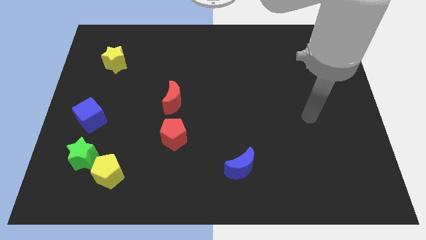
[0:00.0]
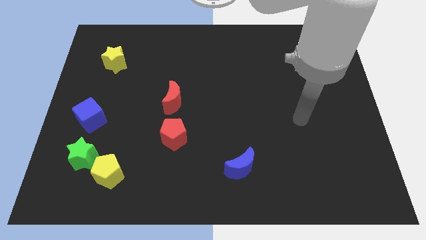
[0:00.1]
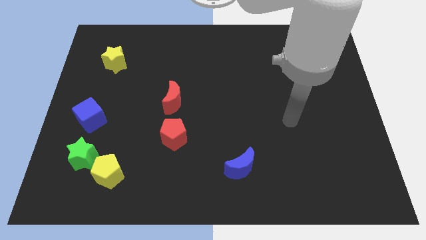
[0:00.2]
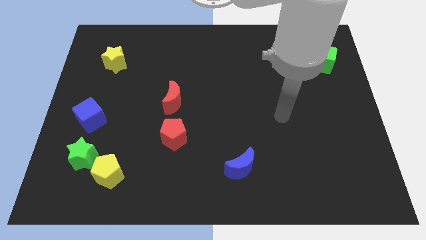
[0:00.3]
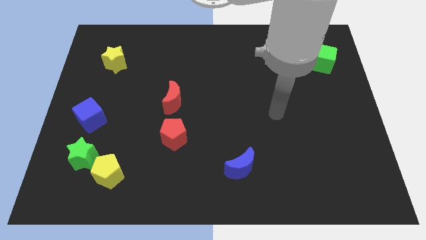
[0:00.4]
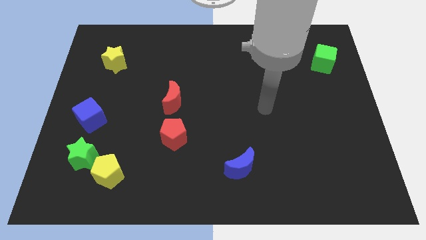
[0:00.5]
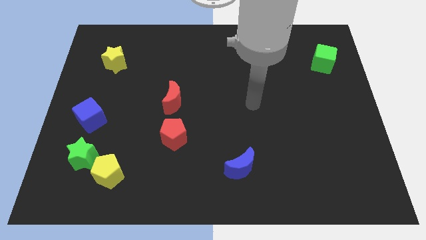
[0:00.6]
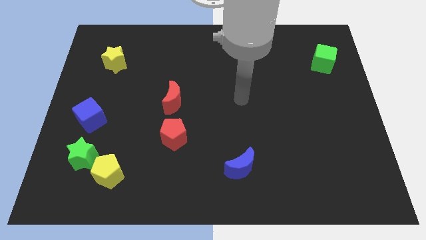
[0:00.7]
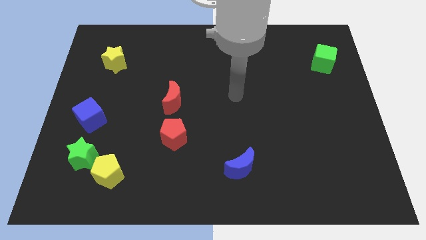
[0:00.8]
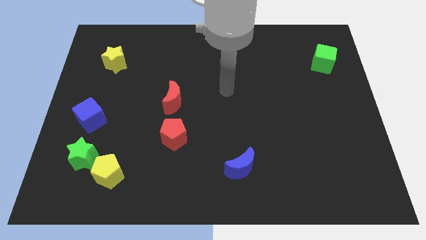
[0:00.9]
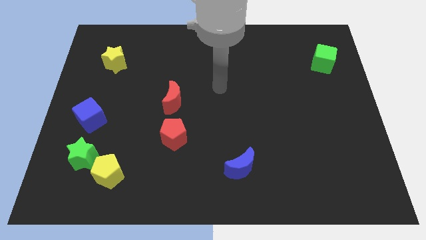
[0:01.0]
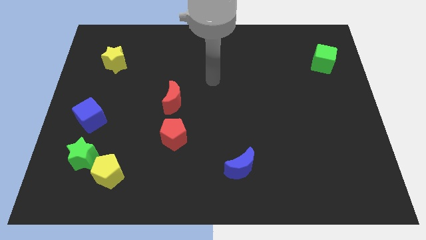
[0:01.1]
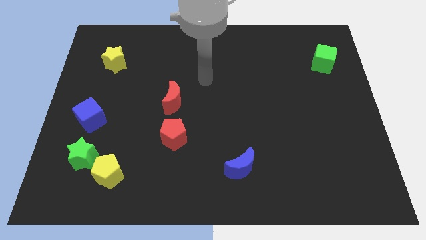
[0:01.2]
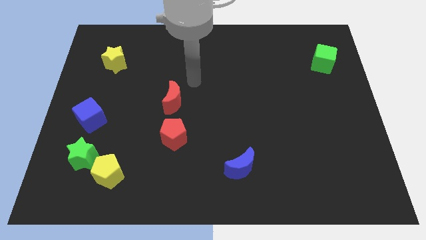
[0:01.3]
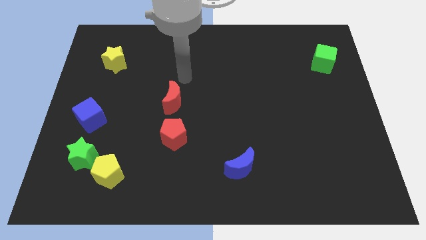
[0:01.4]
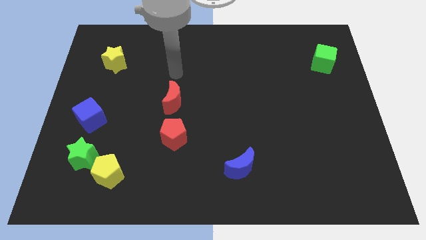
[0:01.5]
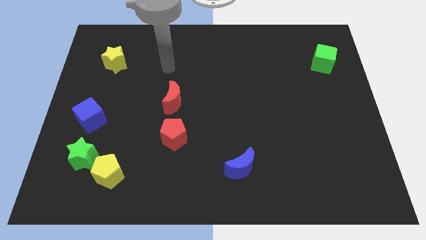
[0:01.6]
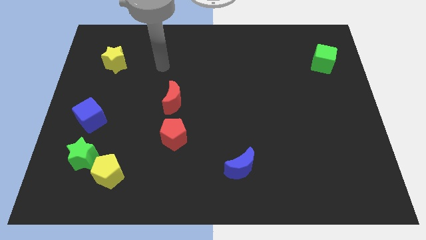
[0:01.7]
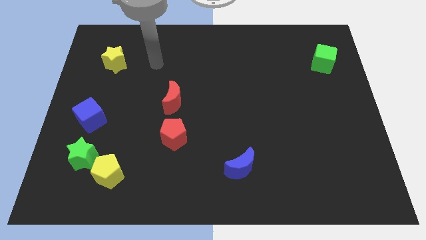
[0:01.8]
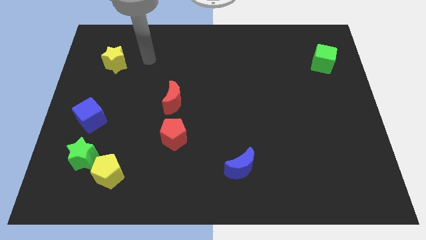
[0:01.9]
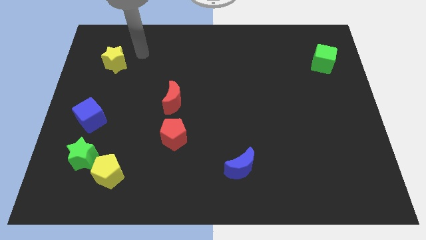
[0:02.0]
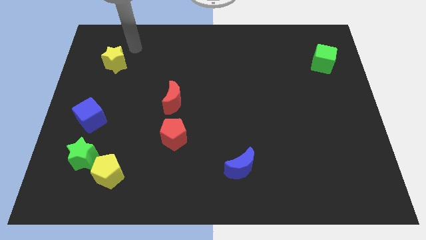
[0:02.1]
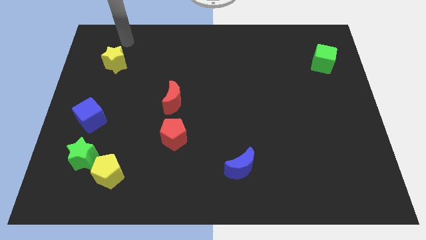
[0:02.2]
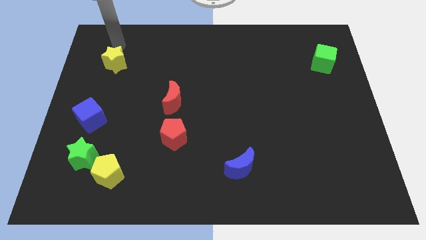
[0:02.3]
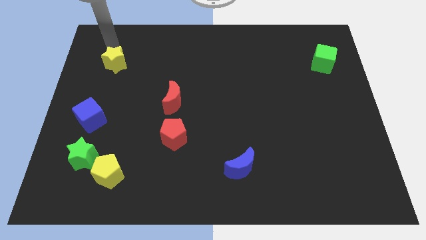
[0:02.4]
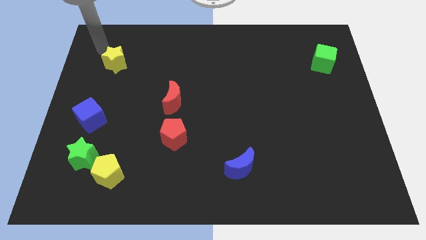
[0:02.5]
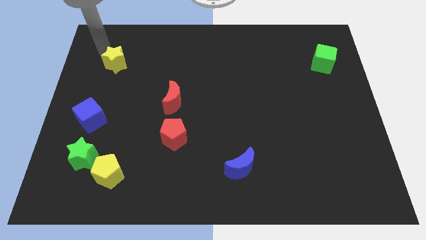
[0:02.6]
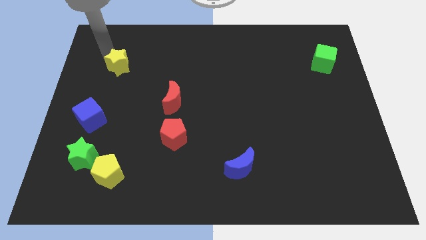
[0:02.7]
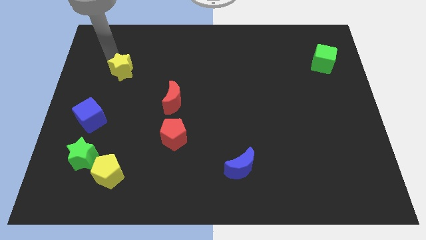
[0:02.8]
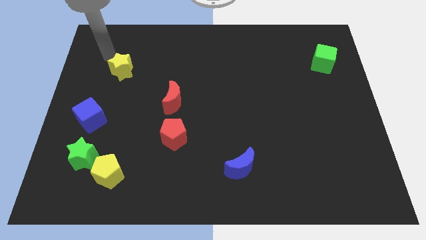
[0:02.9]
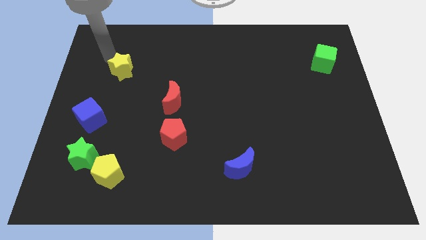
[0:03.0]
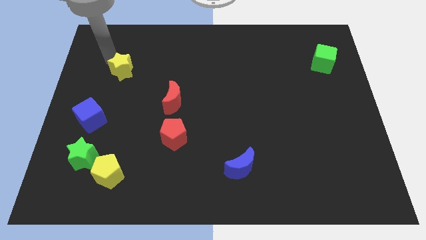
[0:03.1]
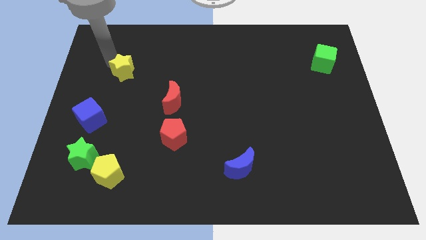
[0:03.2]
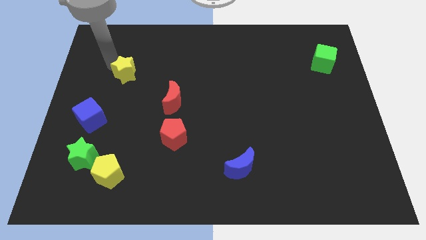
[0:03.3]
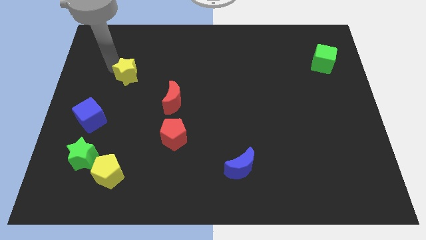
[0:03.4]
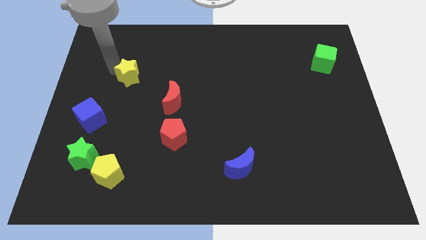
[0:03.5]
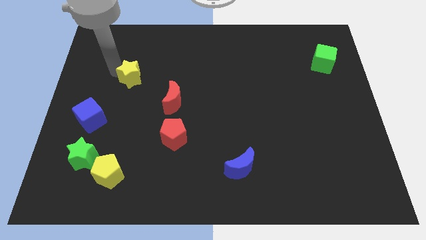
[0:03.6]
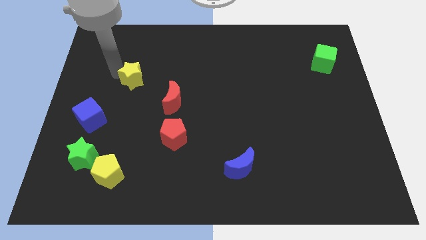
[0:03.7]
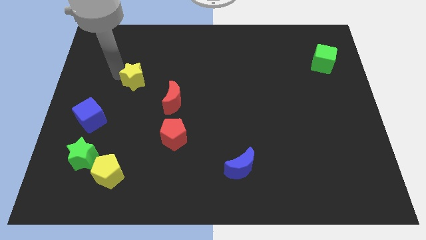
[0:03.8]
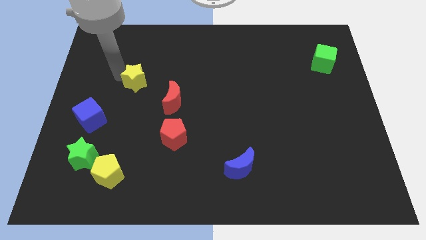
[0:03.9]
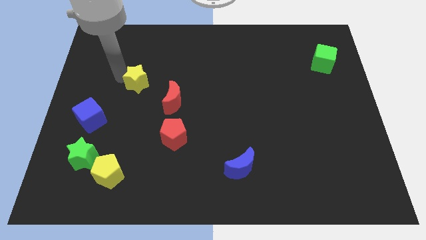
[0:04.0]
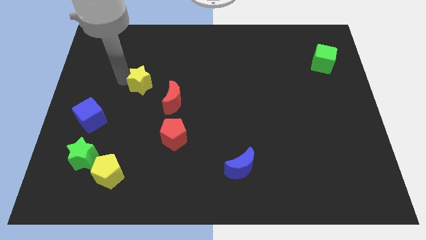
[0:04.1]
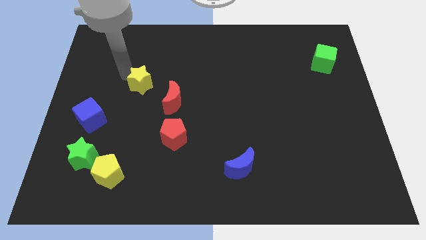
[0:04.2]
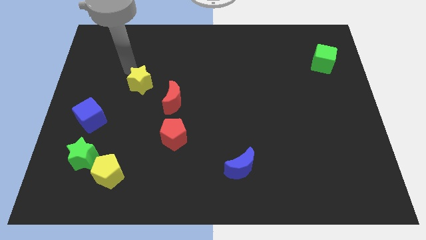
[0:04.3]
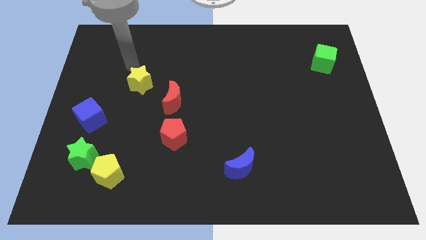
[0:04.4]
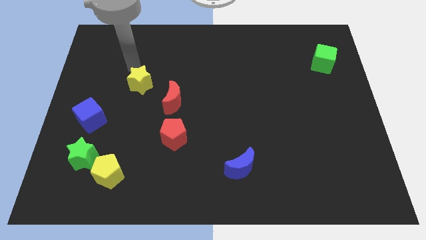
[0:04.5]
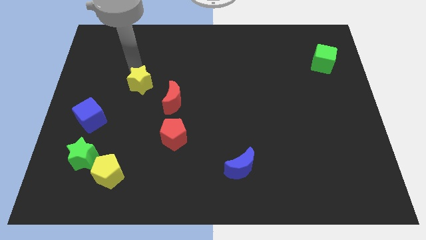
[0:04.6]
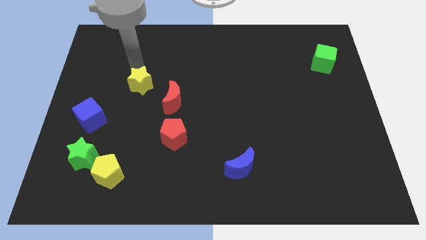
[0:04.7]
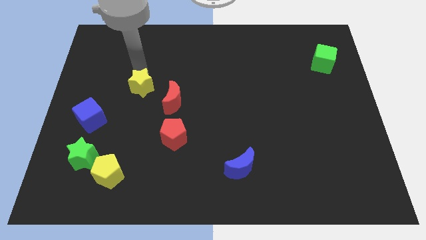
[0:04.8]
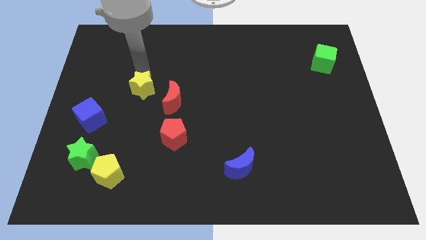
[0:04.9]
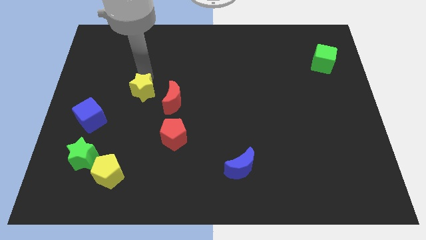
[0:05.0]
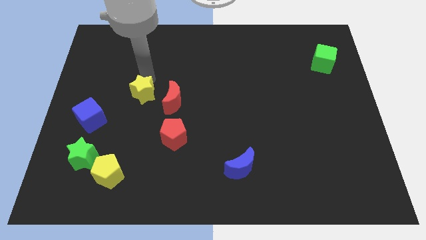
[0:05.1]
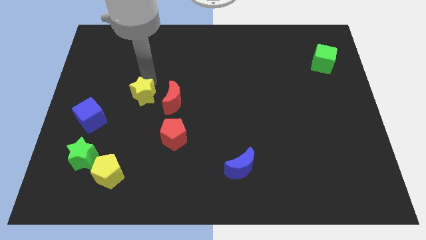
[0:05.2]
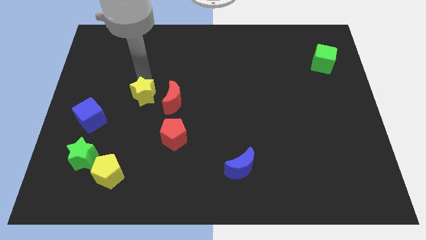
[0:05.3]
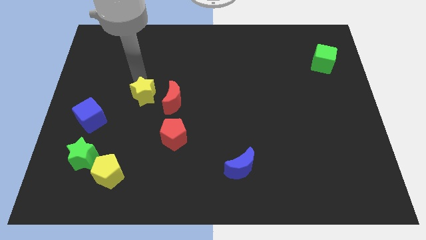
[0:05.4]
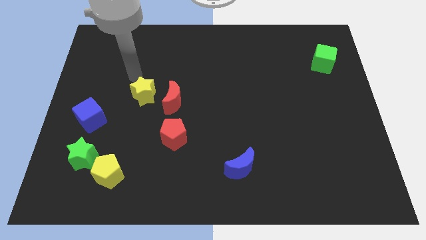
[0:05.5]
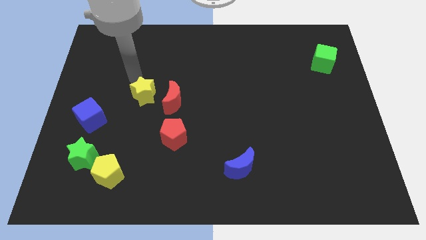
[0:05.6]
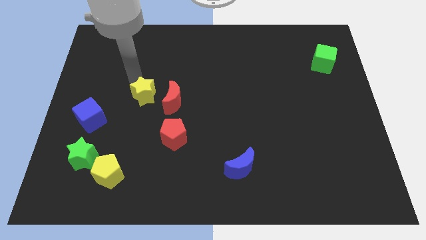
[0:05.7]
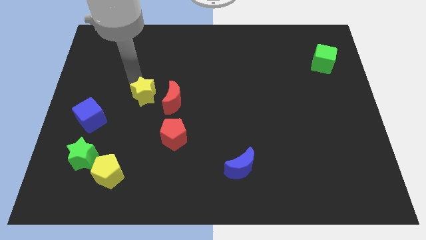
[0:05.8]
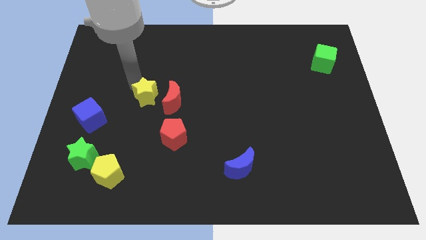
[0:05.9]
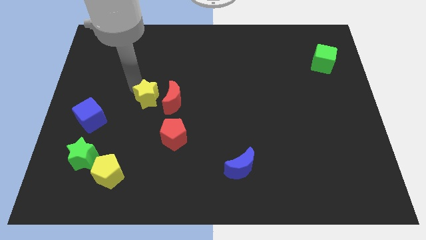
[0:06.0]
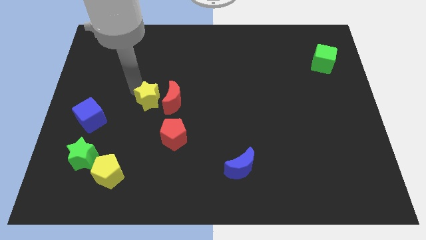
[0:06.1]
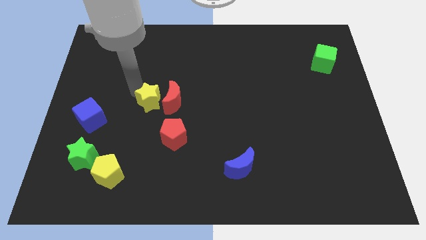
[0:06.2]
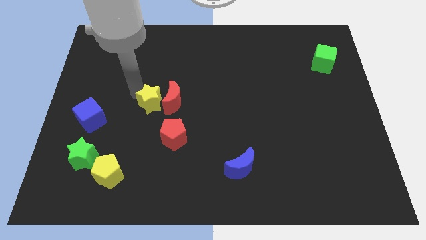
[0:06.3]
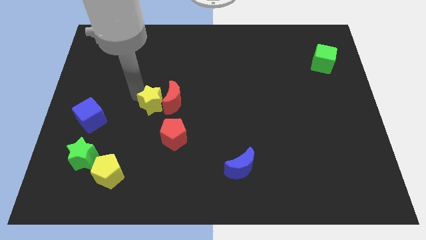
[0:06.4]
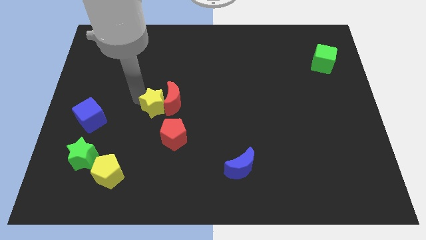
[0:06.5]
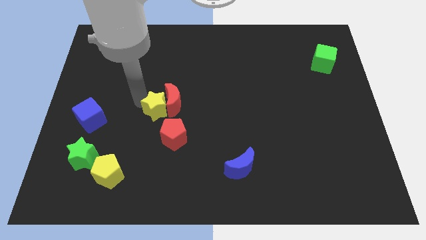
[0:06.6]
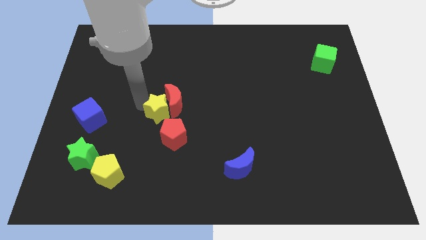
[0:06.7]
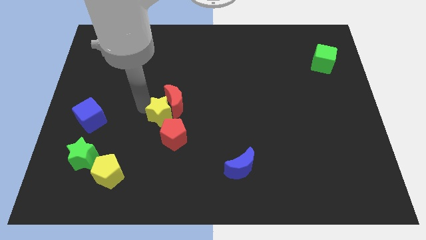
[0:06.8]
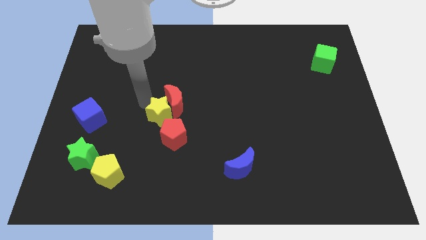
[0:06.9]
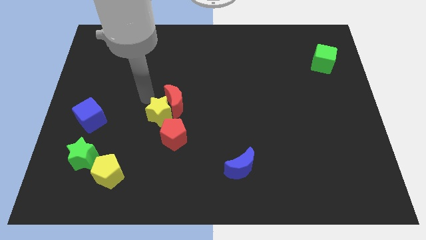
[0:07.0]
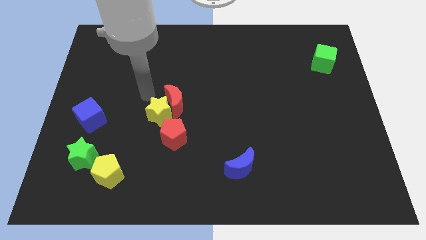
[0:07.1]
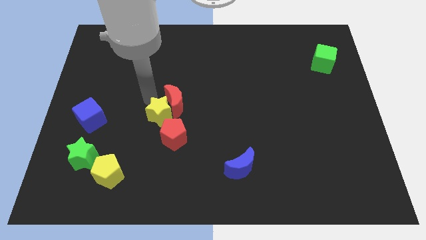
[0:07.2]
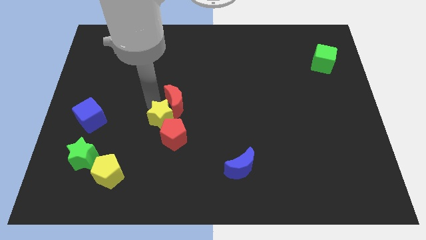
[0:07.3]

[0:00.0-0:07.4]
push the yellow star to the red pentagon
